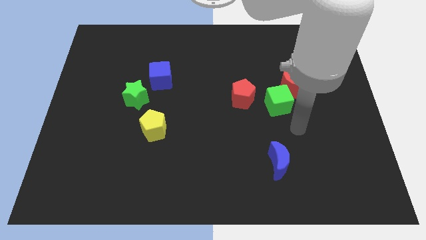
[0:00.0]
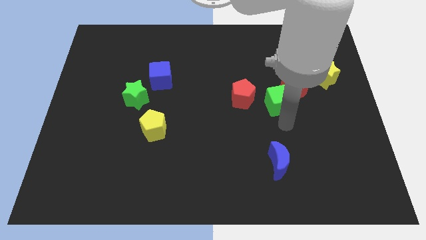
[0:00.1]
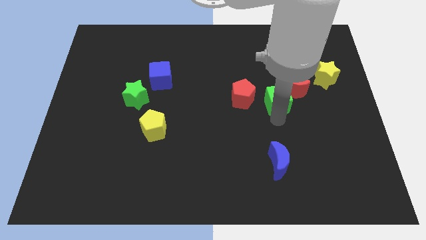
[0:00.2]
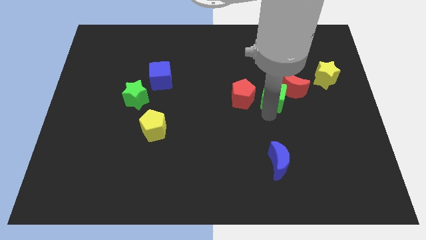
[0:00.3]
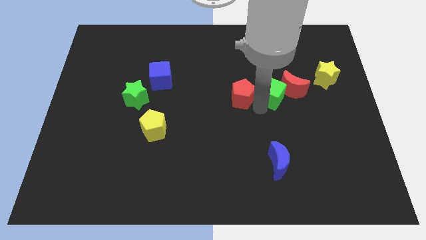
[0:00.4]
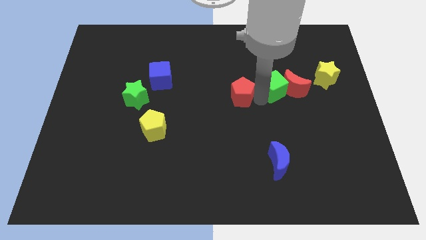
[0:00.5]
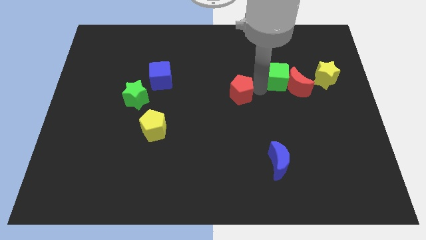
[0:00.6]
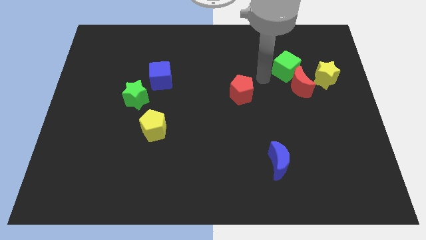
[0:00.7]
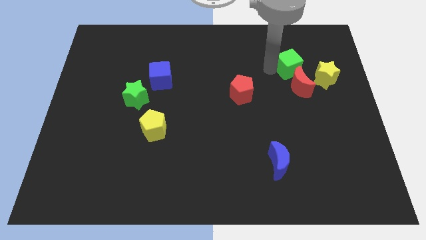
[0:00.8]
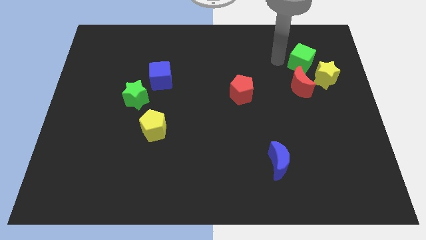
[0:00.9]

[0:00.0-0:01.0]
separate the green cube from the red moon and red pentagon

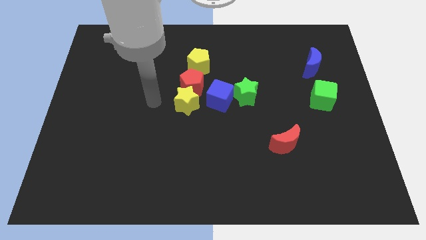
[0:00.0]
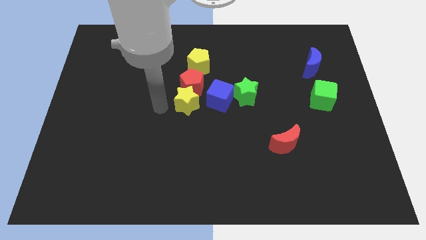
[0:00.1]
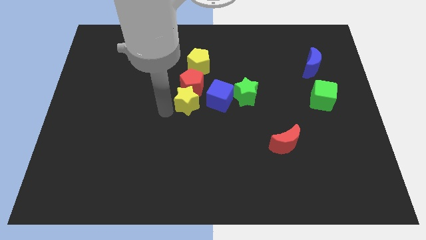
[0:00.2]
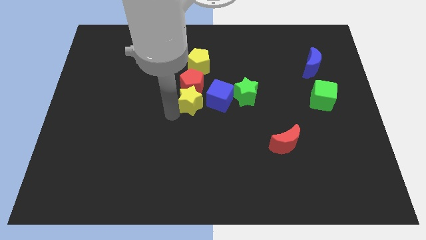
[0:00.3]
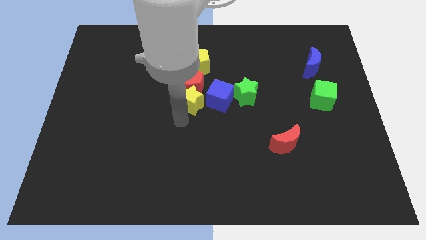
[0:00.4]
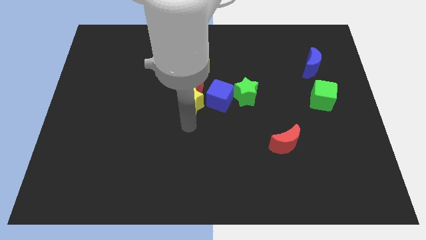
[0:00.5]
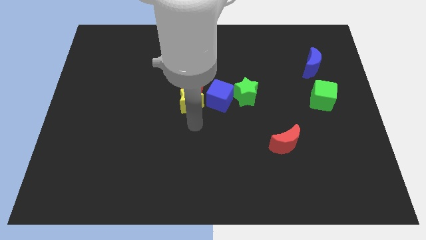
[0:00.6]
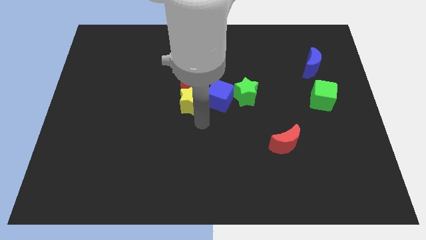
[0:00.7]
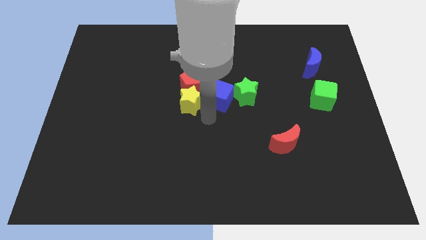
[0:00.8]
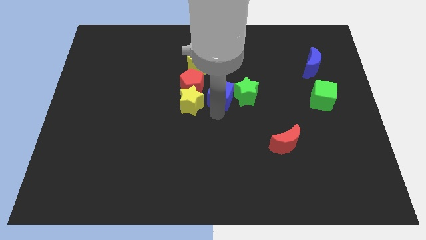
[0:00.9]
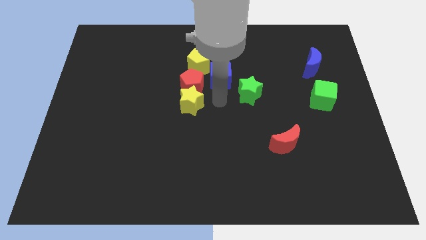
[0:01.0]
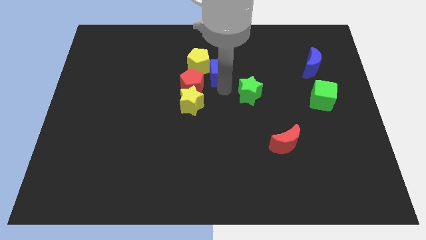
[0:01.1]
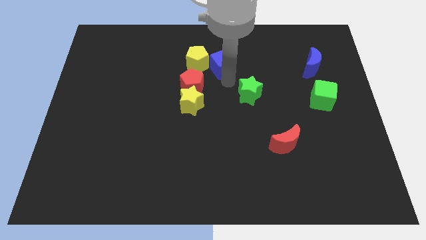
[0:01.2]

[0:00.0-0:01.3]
move the green star away from the blue cube

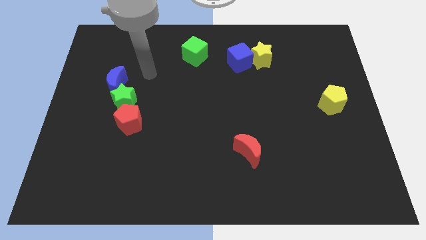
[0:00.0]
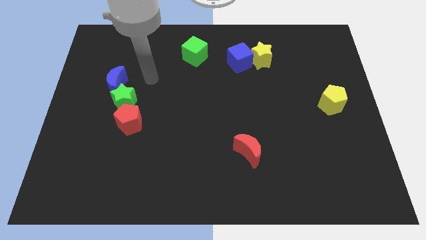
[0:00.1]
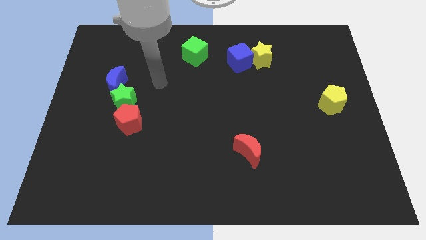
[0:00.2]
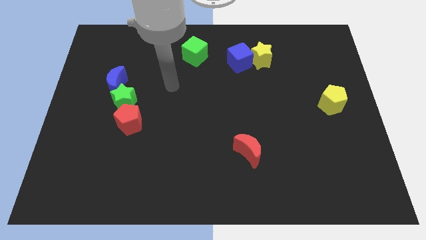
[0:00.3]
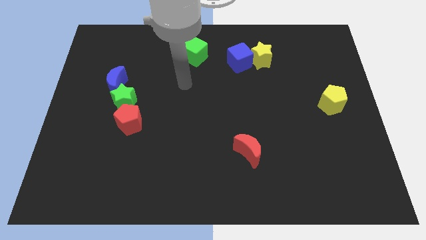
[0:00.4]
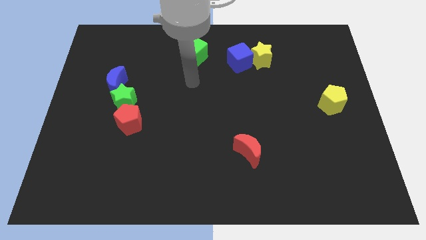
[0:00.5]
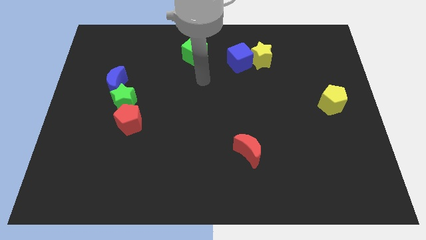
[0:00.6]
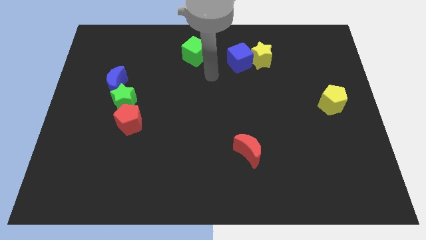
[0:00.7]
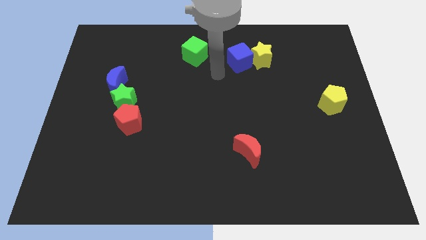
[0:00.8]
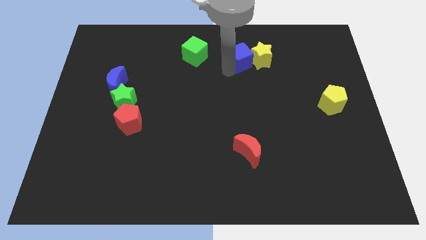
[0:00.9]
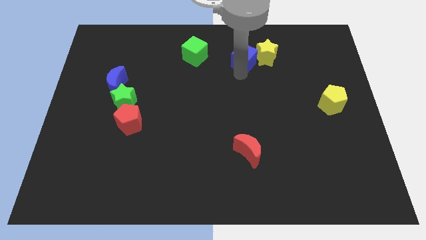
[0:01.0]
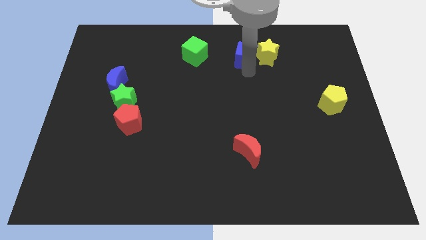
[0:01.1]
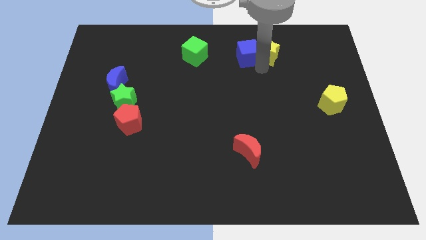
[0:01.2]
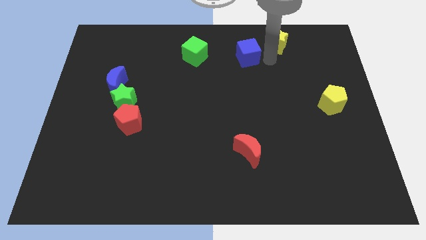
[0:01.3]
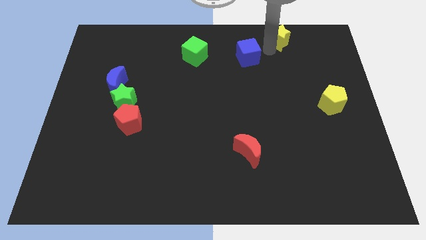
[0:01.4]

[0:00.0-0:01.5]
pull the blue cube apart from the yellow star

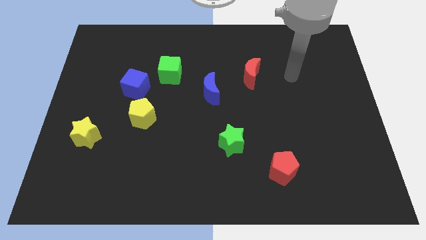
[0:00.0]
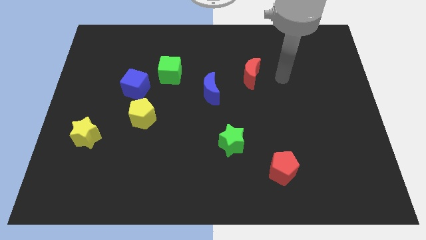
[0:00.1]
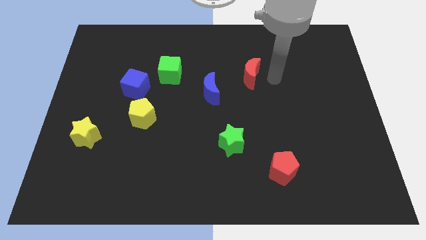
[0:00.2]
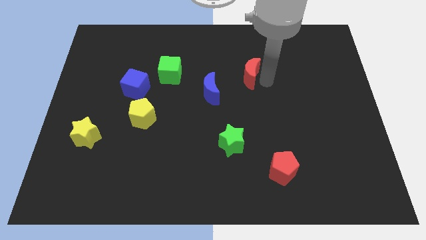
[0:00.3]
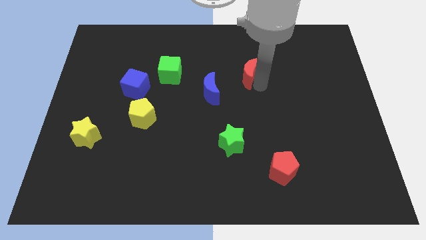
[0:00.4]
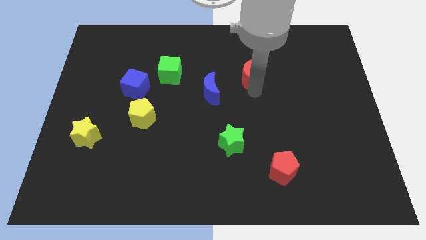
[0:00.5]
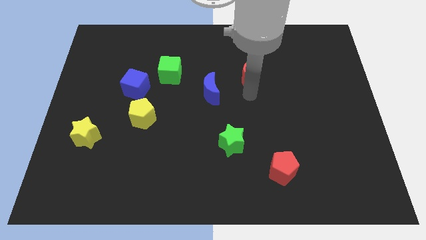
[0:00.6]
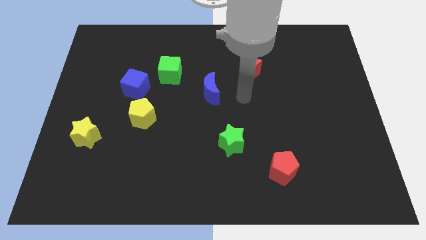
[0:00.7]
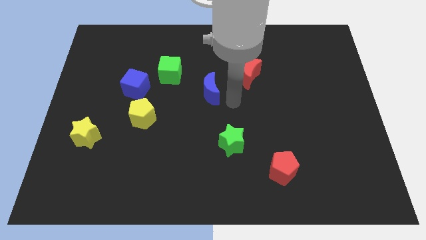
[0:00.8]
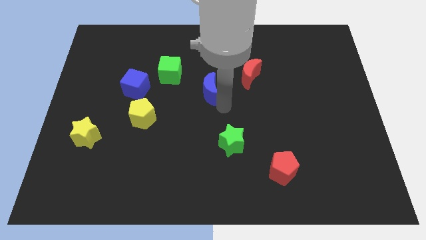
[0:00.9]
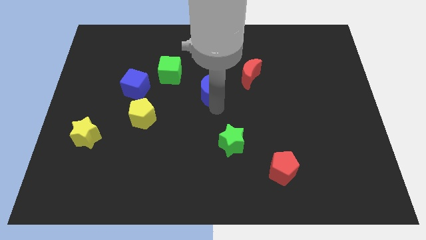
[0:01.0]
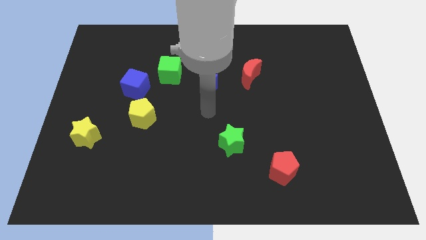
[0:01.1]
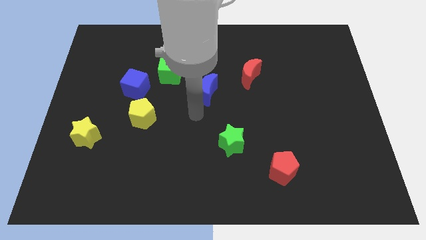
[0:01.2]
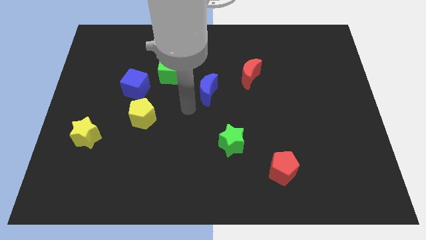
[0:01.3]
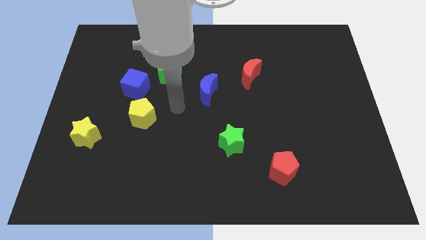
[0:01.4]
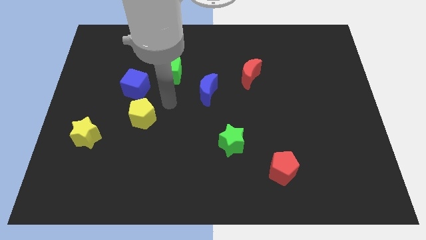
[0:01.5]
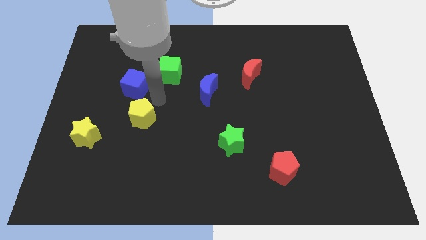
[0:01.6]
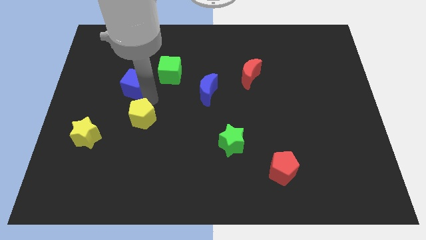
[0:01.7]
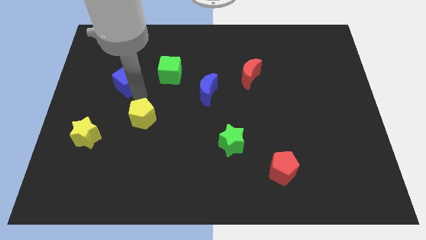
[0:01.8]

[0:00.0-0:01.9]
move the yellow pentagon away from the blue cube

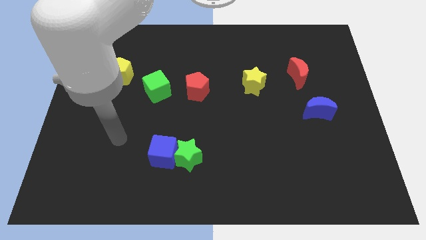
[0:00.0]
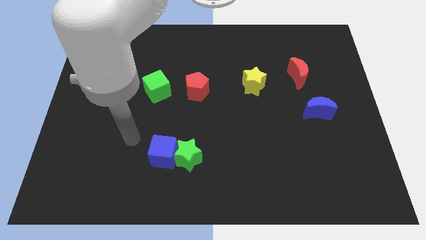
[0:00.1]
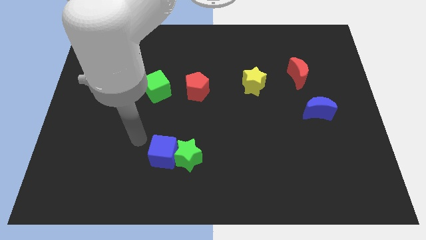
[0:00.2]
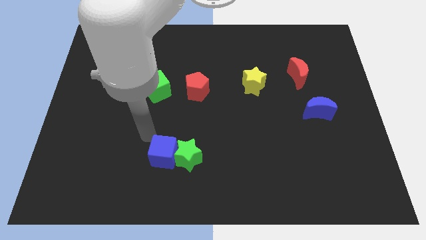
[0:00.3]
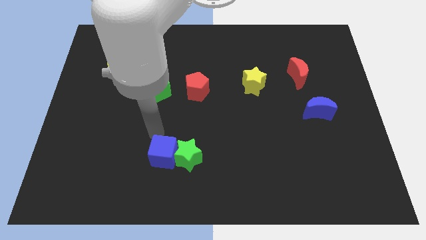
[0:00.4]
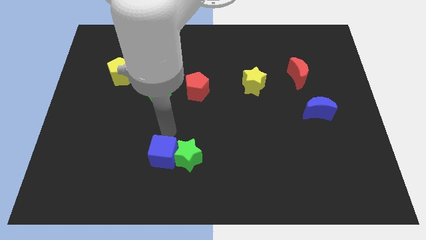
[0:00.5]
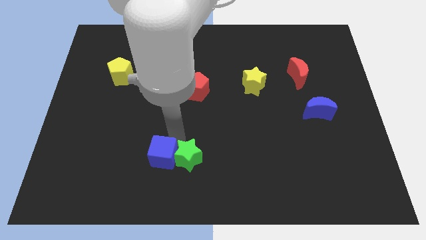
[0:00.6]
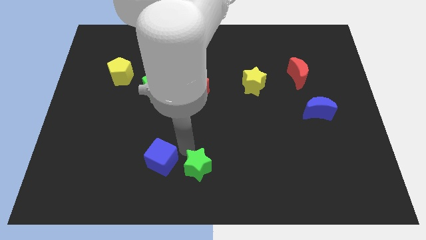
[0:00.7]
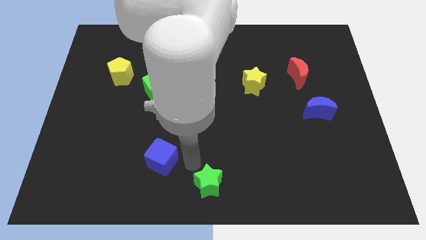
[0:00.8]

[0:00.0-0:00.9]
pull the blue cube apart from the green star

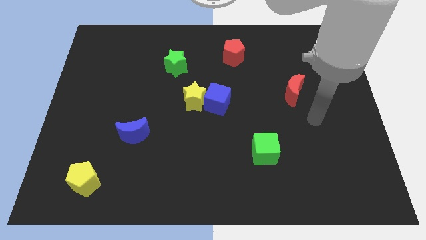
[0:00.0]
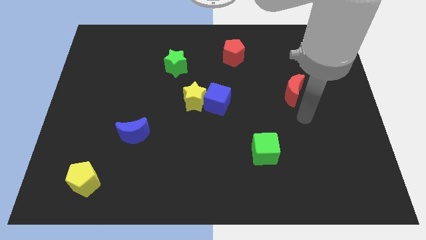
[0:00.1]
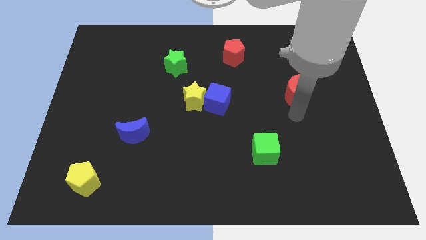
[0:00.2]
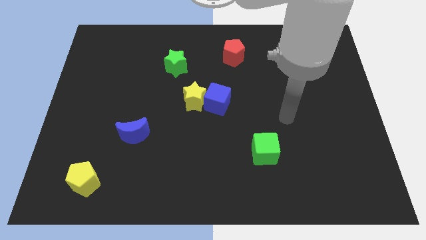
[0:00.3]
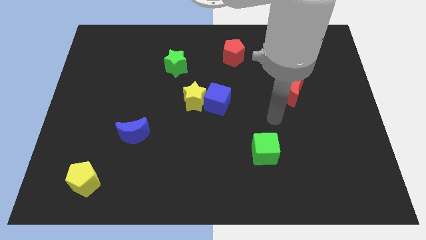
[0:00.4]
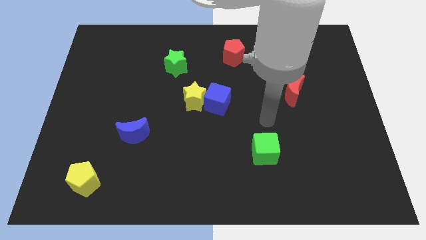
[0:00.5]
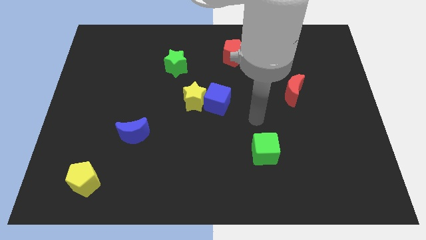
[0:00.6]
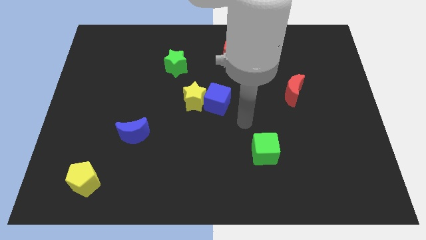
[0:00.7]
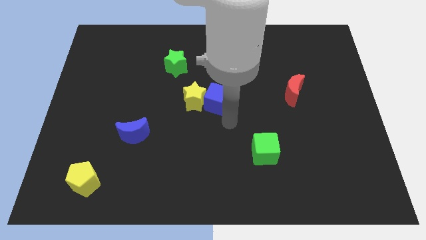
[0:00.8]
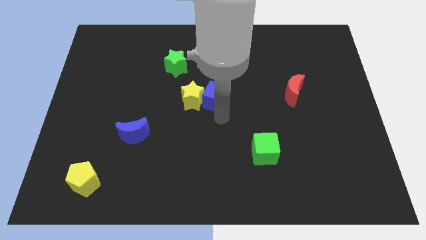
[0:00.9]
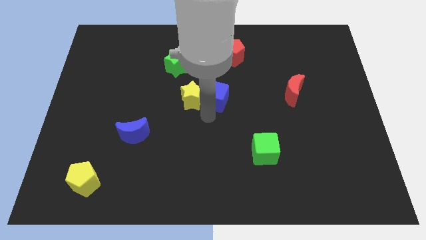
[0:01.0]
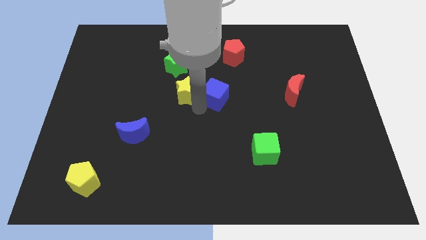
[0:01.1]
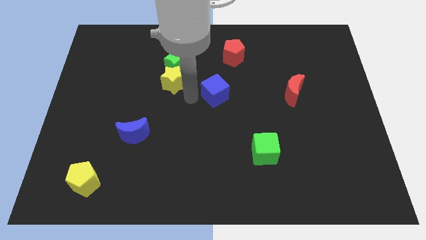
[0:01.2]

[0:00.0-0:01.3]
separate the blue cube from the yellow star

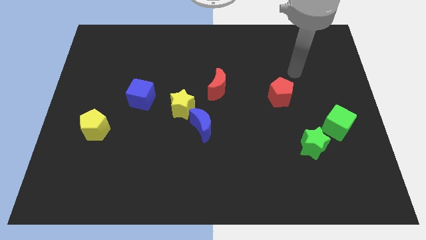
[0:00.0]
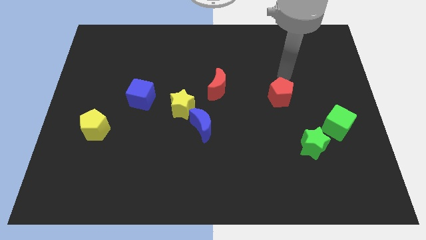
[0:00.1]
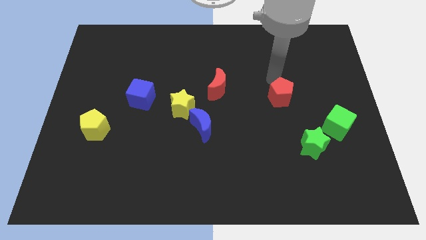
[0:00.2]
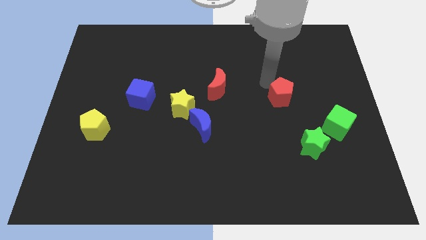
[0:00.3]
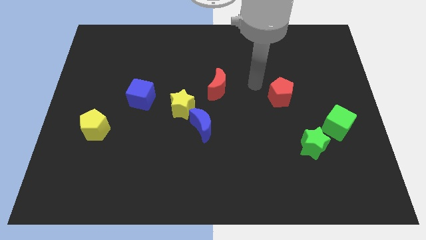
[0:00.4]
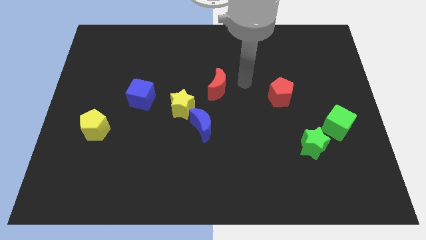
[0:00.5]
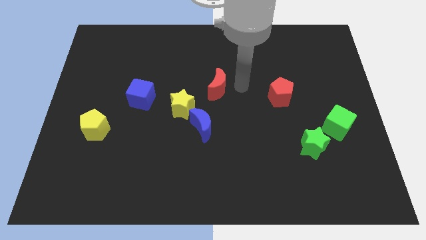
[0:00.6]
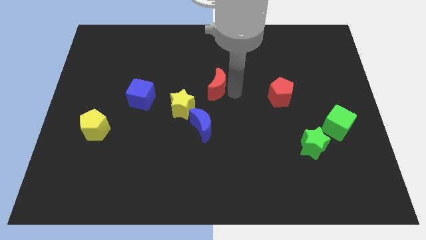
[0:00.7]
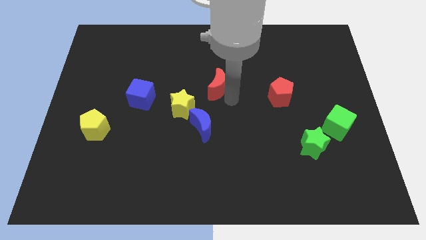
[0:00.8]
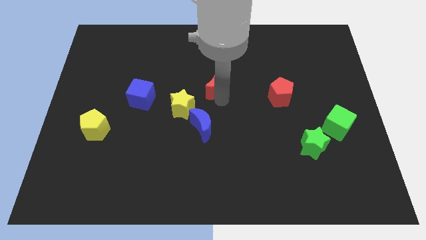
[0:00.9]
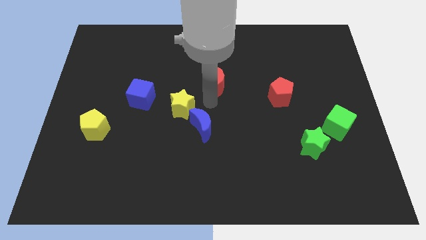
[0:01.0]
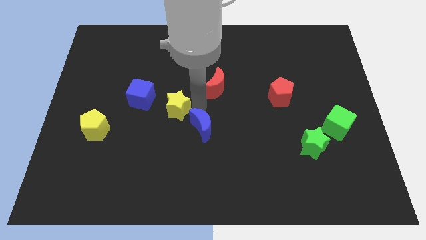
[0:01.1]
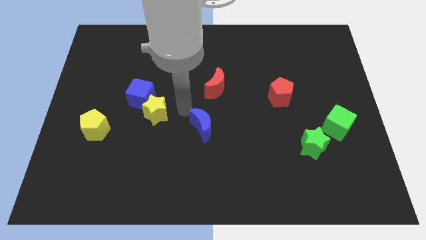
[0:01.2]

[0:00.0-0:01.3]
move the blue moon away from the yellow star

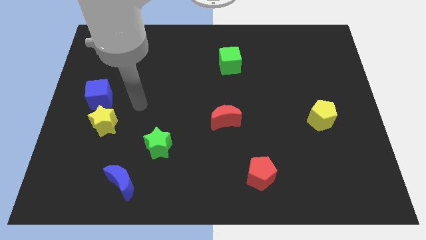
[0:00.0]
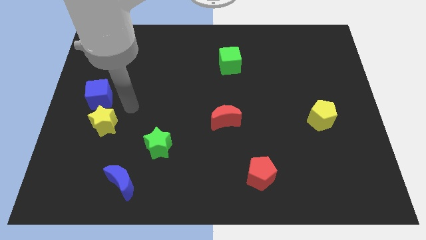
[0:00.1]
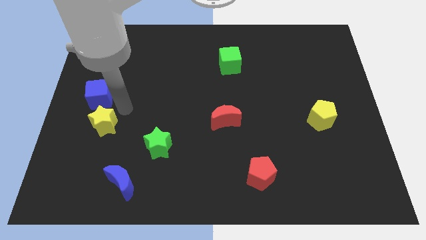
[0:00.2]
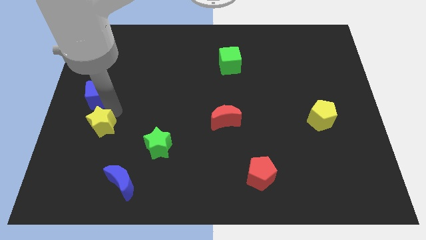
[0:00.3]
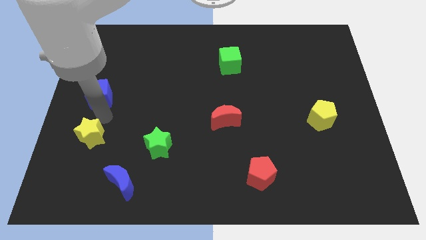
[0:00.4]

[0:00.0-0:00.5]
move the blue cube away from the yellow star
